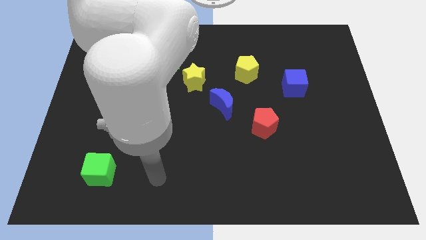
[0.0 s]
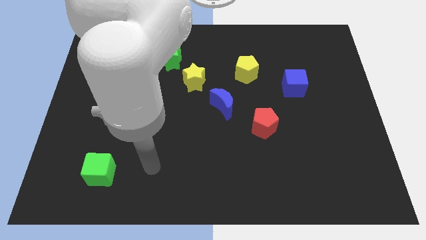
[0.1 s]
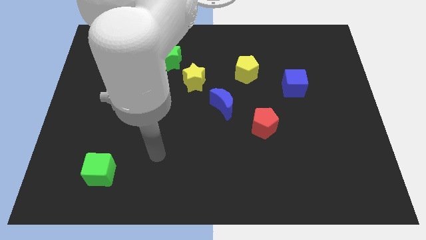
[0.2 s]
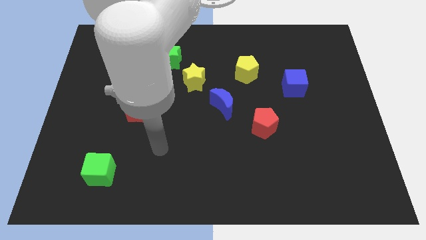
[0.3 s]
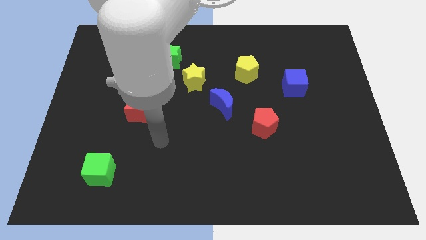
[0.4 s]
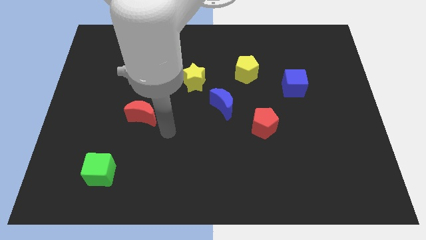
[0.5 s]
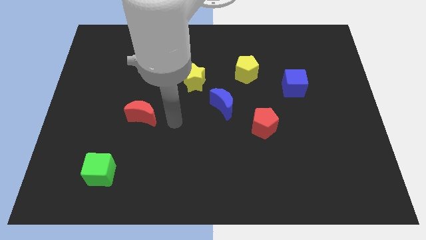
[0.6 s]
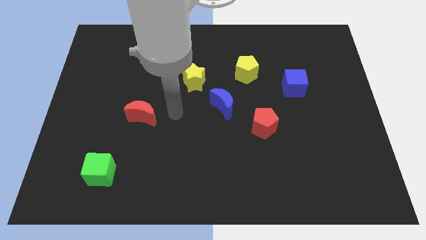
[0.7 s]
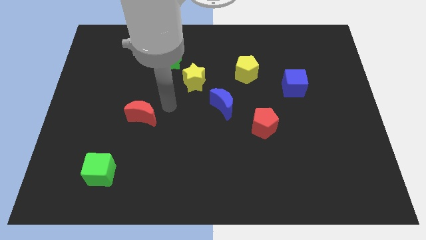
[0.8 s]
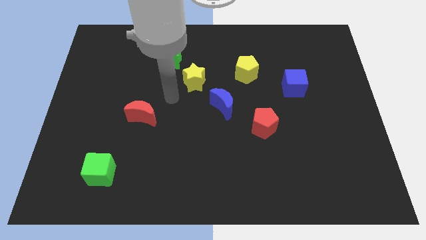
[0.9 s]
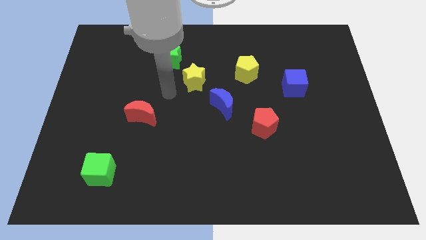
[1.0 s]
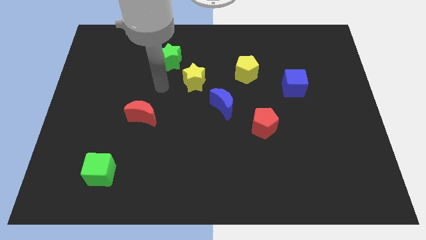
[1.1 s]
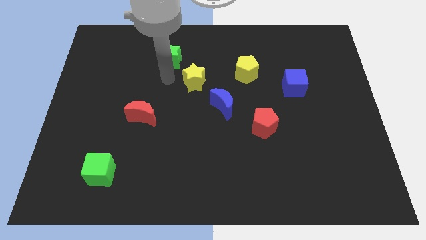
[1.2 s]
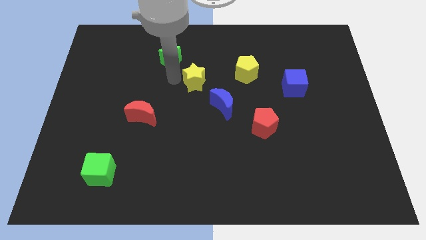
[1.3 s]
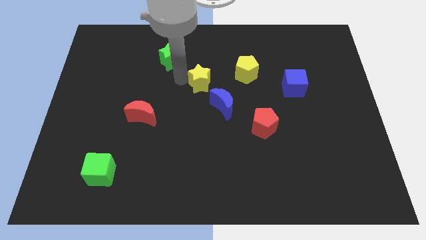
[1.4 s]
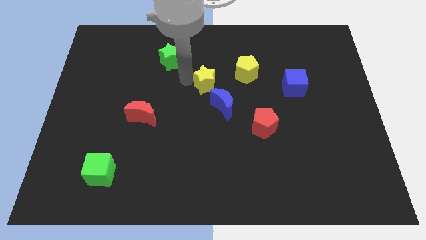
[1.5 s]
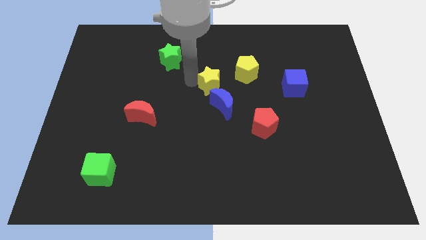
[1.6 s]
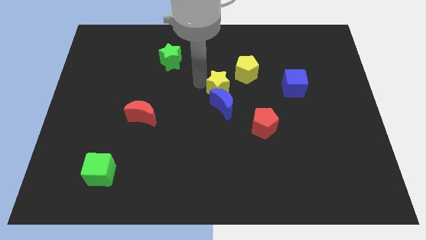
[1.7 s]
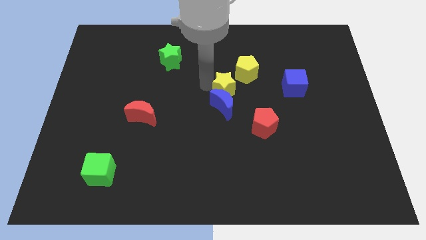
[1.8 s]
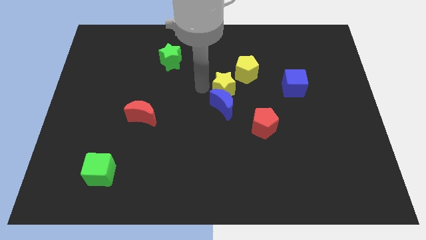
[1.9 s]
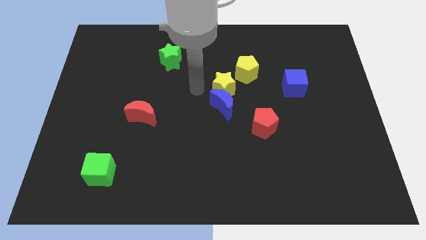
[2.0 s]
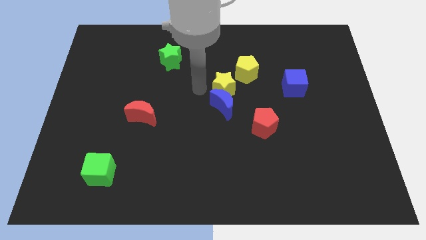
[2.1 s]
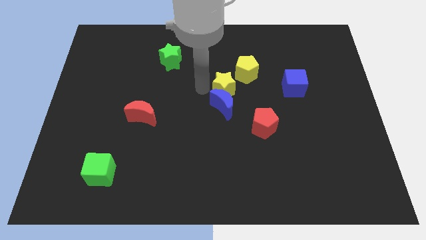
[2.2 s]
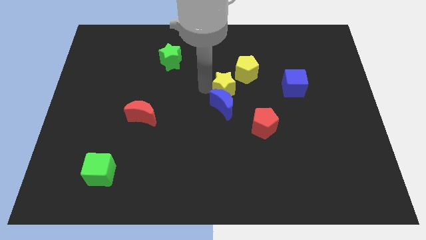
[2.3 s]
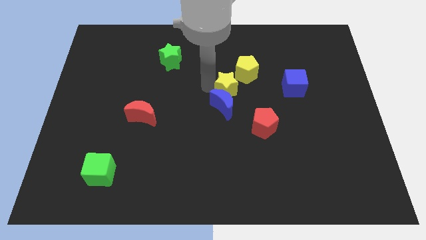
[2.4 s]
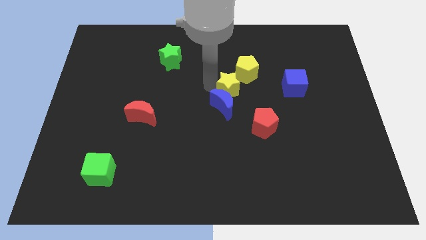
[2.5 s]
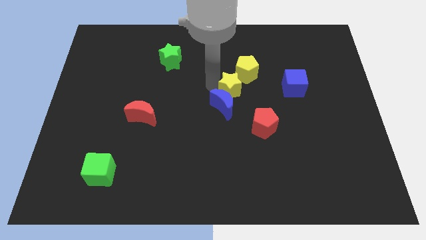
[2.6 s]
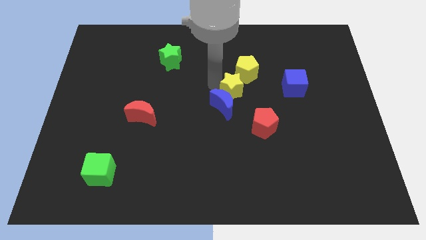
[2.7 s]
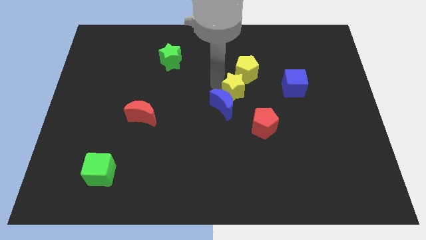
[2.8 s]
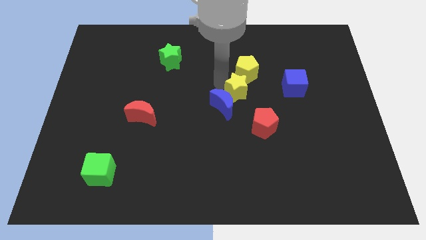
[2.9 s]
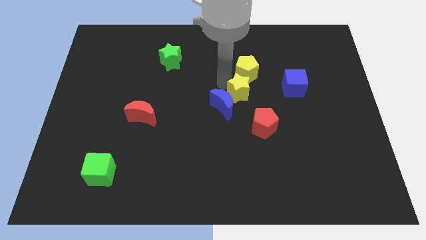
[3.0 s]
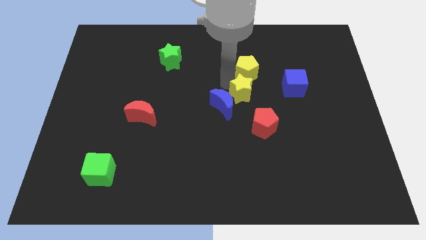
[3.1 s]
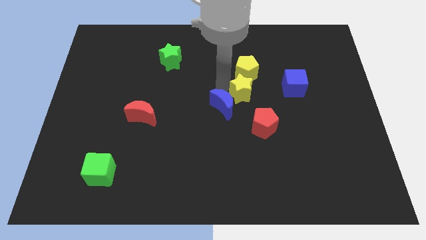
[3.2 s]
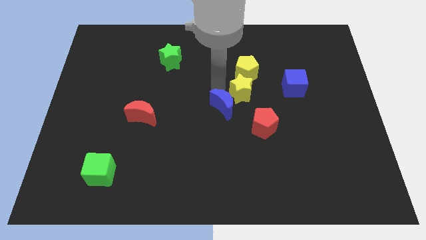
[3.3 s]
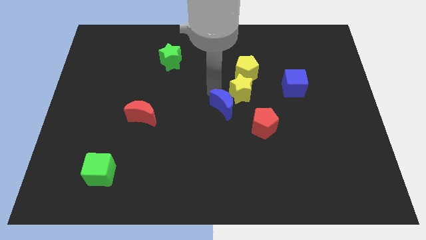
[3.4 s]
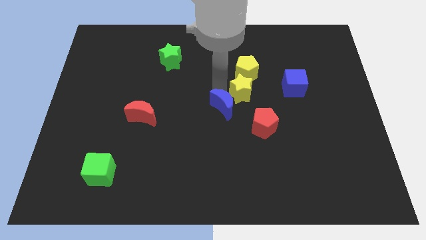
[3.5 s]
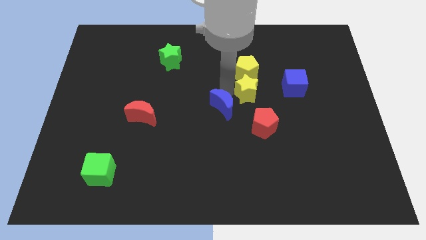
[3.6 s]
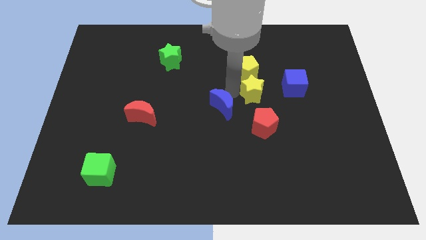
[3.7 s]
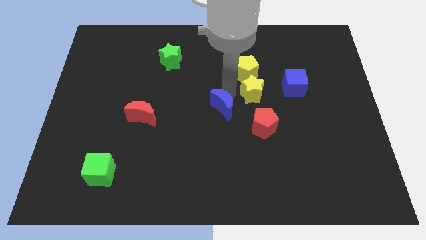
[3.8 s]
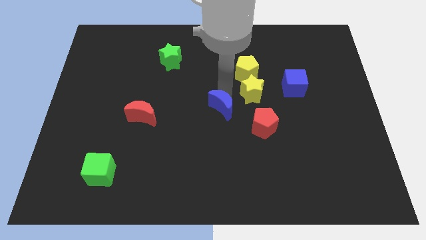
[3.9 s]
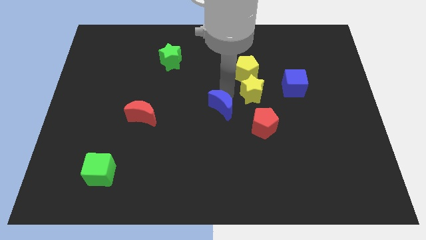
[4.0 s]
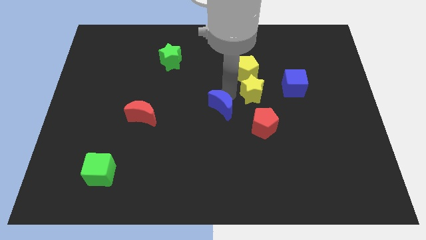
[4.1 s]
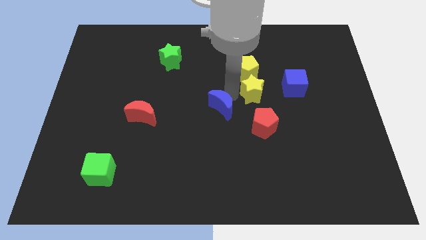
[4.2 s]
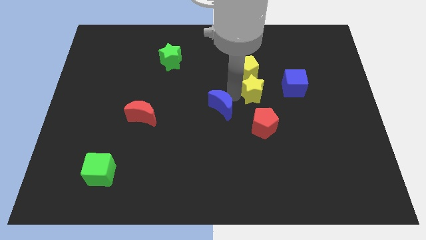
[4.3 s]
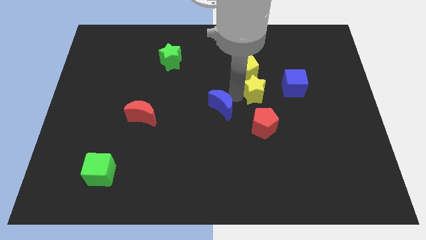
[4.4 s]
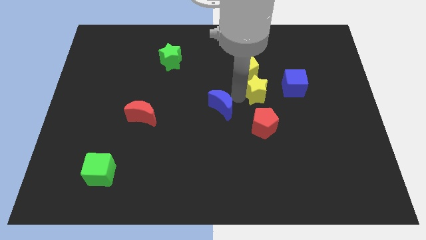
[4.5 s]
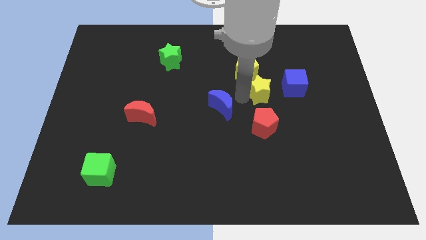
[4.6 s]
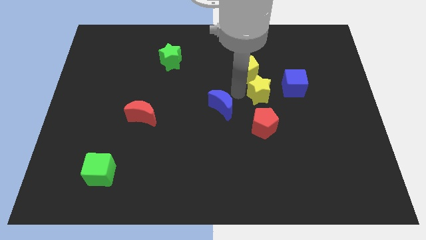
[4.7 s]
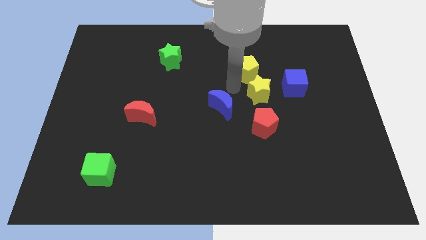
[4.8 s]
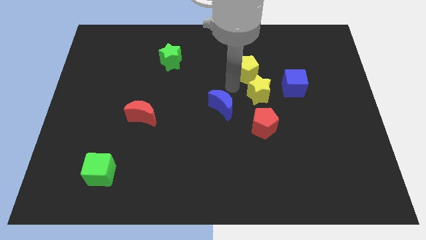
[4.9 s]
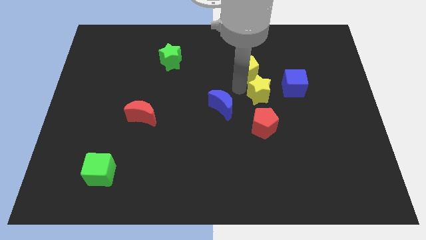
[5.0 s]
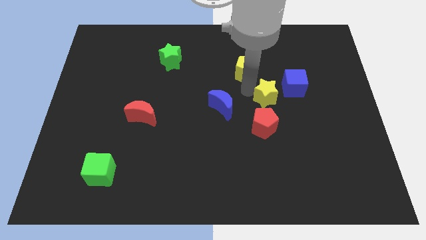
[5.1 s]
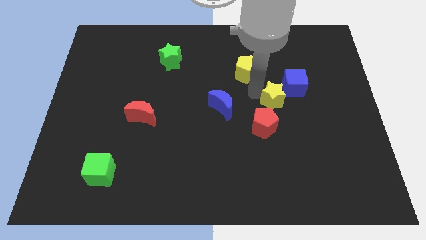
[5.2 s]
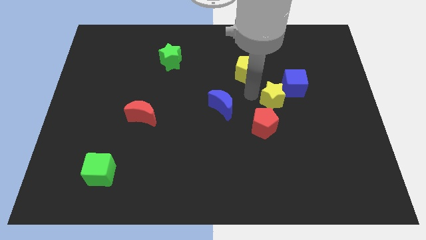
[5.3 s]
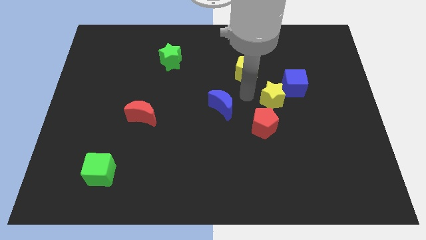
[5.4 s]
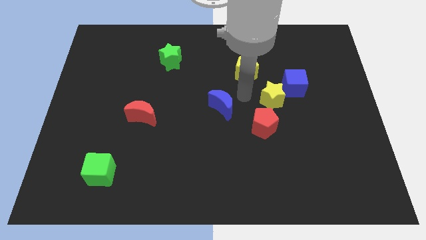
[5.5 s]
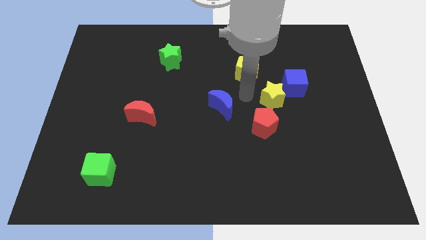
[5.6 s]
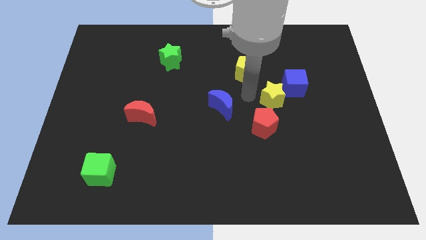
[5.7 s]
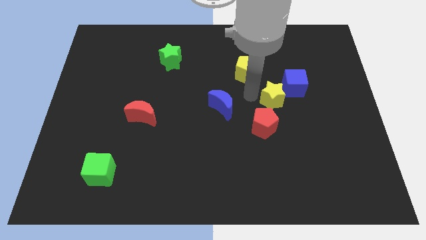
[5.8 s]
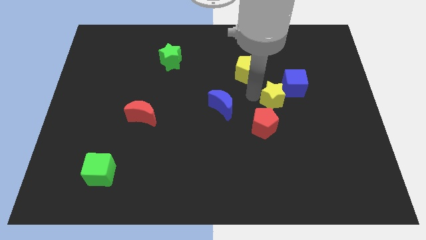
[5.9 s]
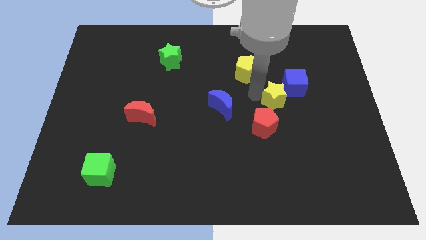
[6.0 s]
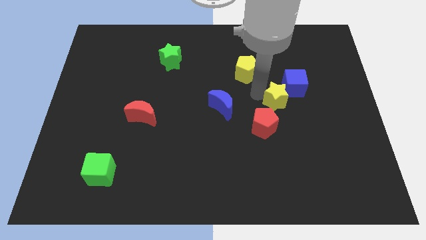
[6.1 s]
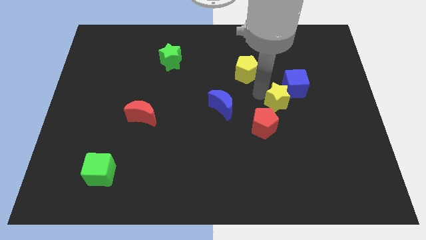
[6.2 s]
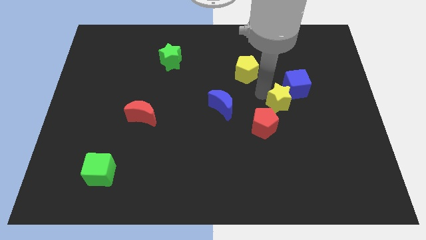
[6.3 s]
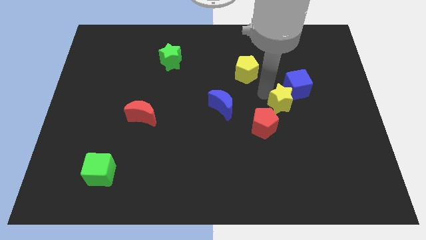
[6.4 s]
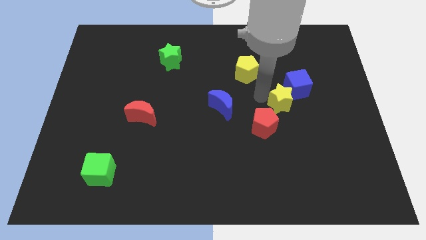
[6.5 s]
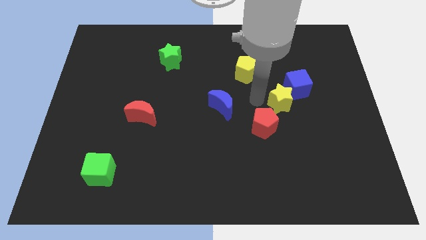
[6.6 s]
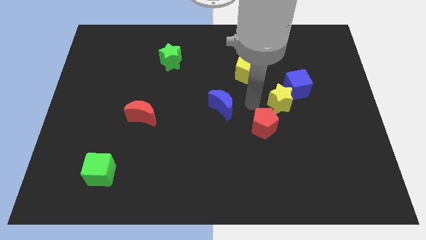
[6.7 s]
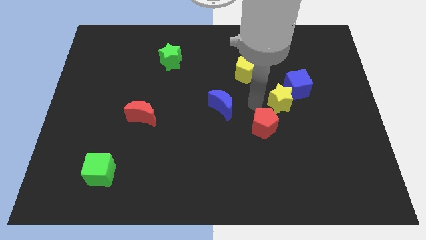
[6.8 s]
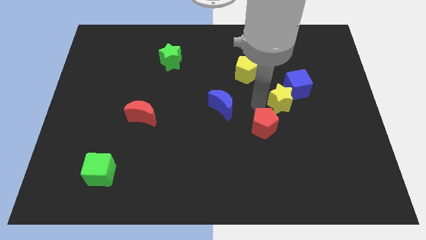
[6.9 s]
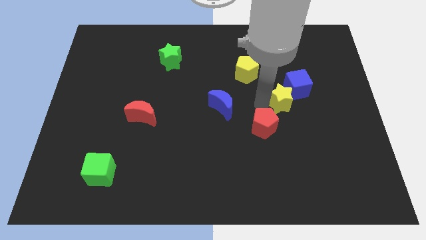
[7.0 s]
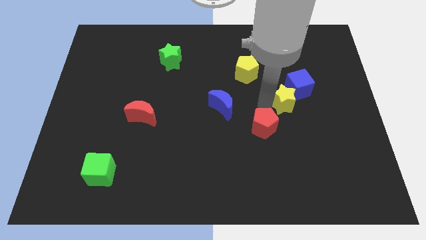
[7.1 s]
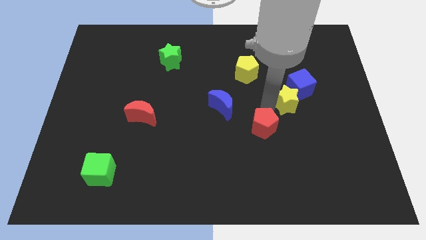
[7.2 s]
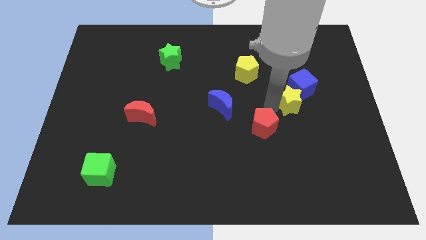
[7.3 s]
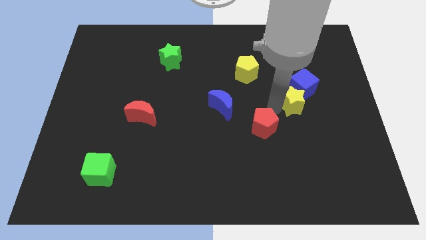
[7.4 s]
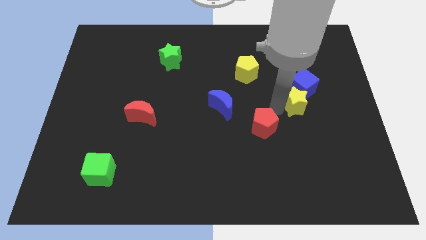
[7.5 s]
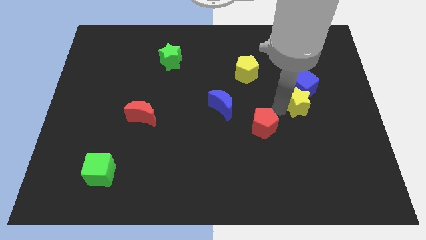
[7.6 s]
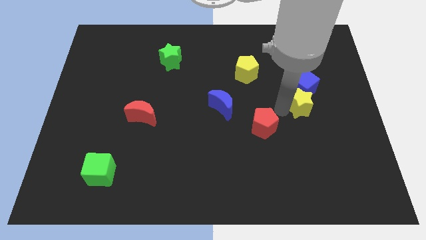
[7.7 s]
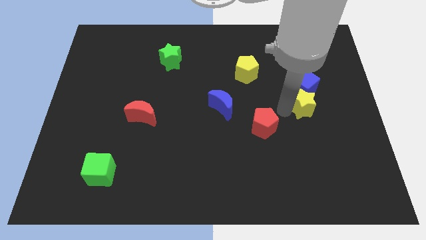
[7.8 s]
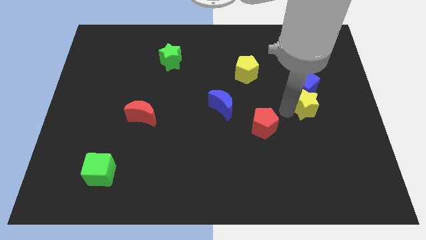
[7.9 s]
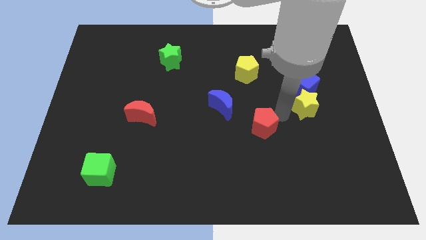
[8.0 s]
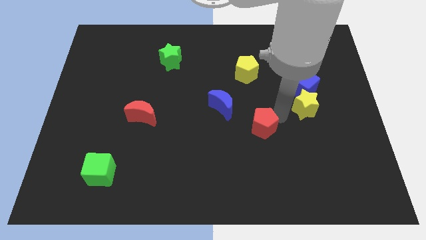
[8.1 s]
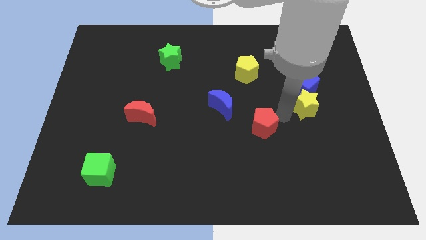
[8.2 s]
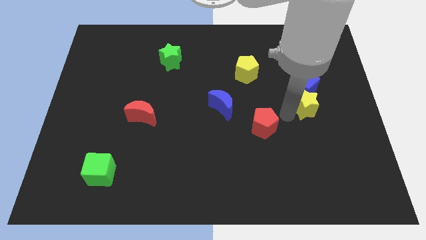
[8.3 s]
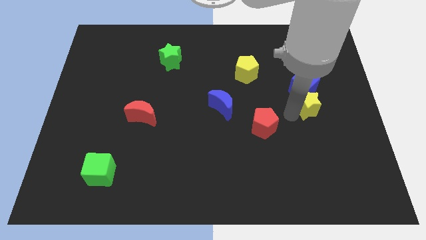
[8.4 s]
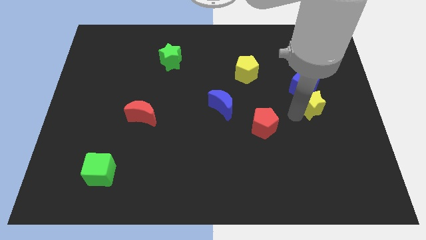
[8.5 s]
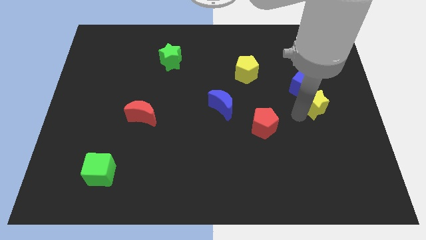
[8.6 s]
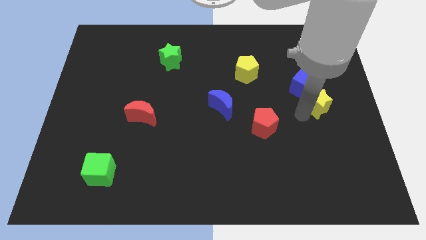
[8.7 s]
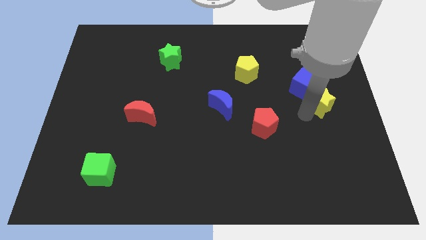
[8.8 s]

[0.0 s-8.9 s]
slide the yellow star to the right side of the board
